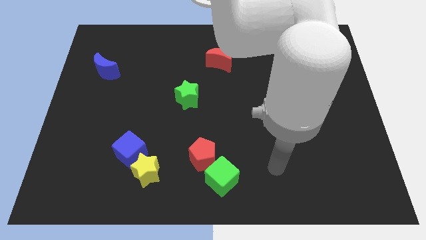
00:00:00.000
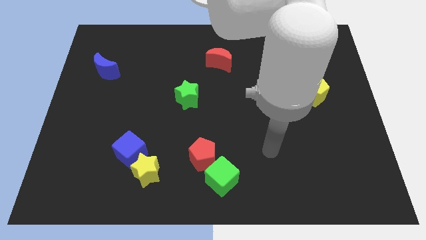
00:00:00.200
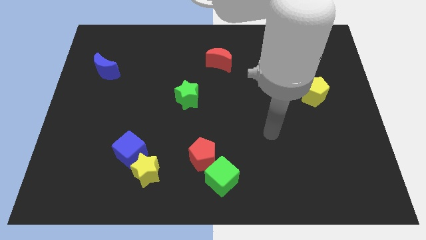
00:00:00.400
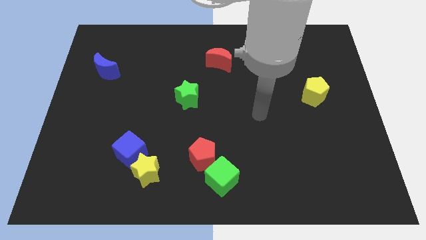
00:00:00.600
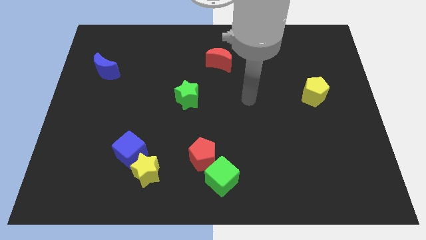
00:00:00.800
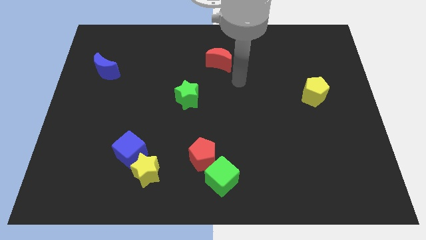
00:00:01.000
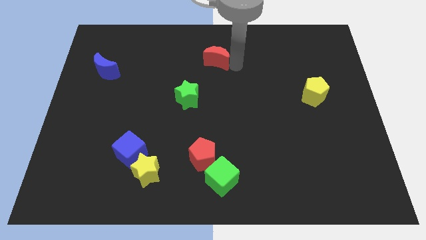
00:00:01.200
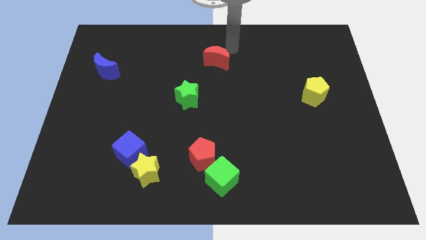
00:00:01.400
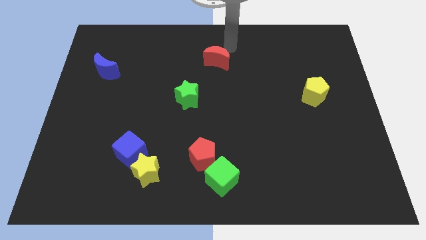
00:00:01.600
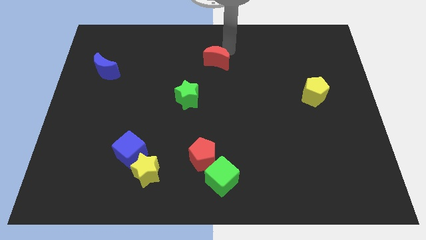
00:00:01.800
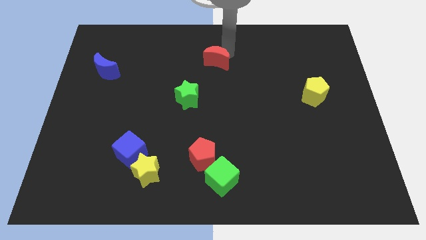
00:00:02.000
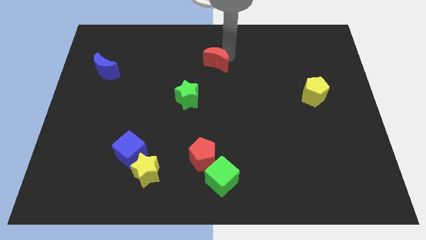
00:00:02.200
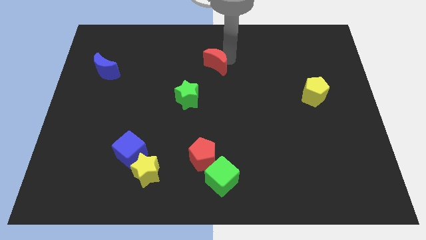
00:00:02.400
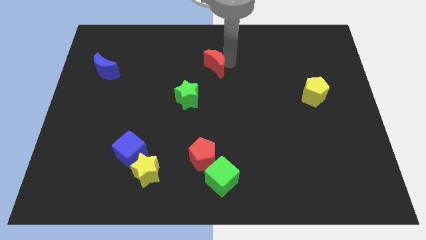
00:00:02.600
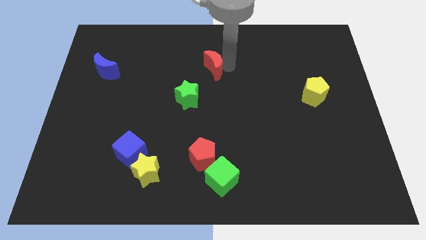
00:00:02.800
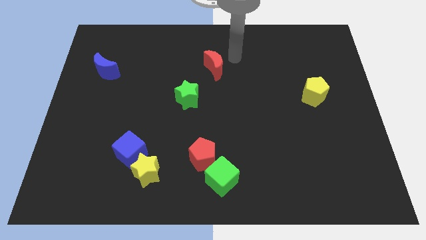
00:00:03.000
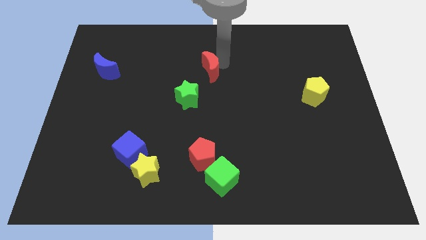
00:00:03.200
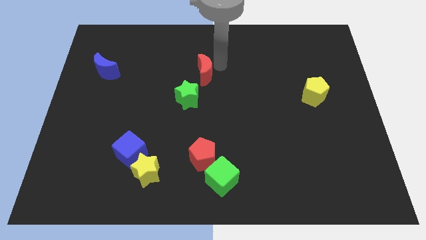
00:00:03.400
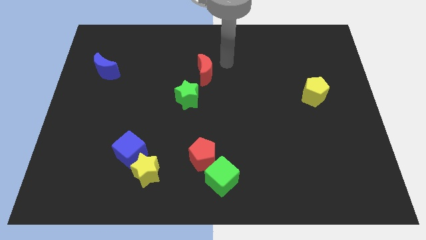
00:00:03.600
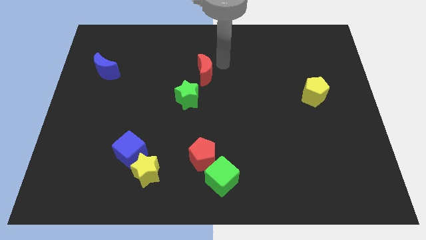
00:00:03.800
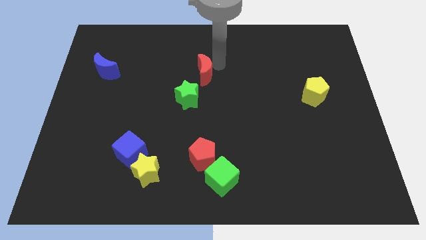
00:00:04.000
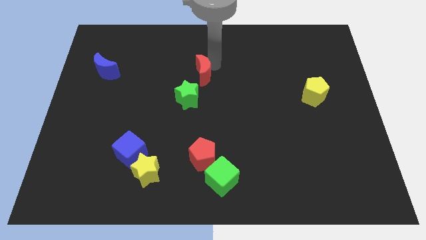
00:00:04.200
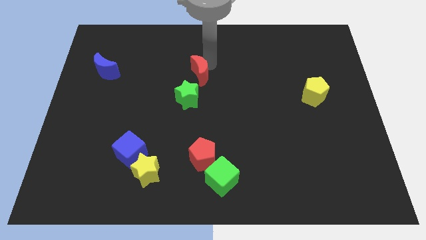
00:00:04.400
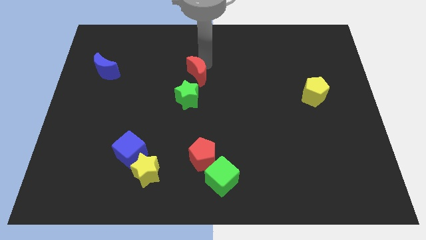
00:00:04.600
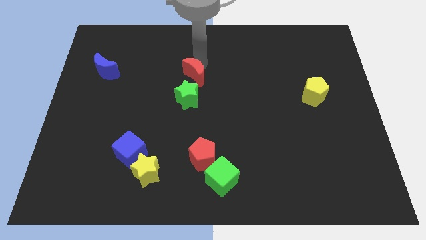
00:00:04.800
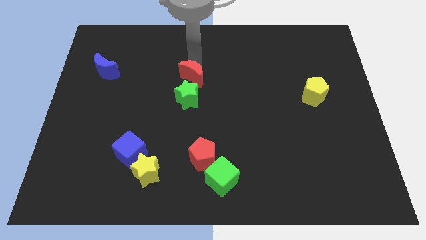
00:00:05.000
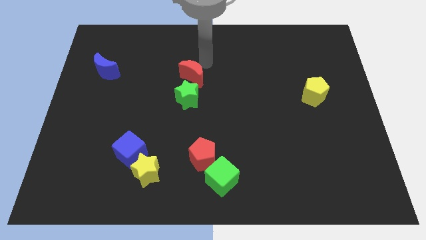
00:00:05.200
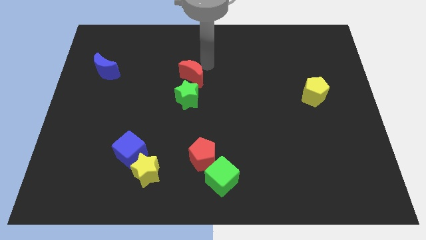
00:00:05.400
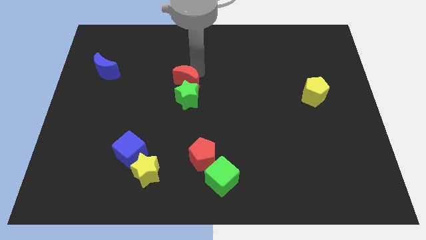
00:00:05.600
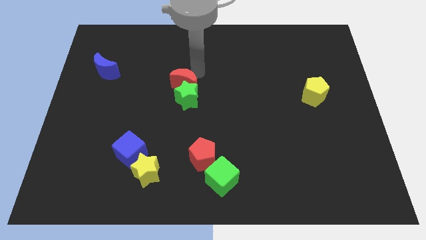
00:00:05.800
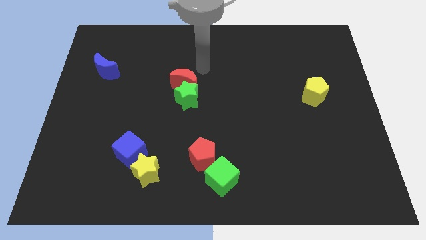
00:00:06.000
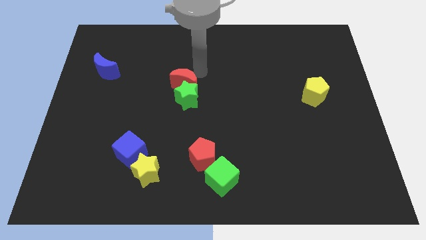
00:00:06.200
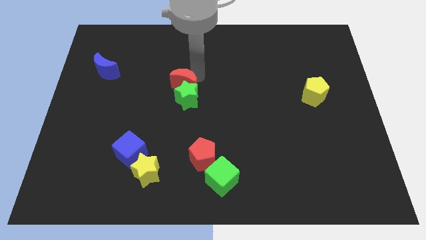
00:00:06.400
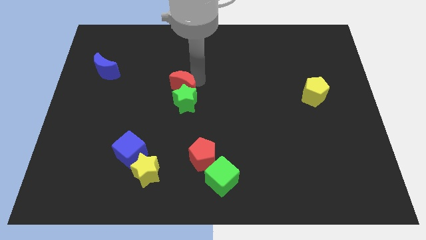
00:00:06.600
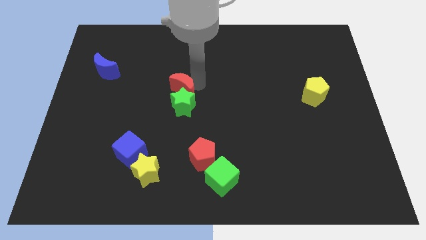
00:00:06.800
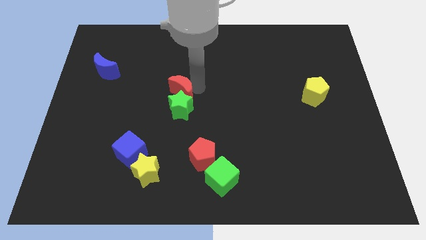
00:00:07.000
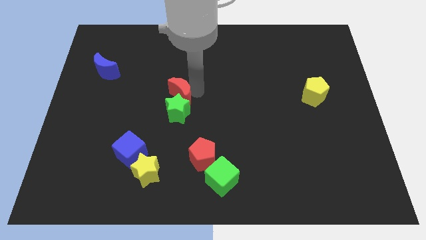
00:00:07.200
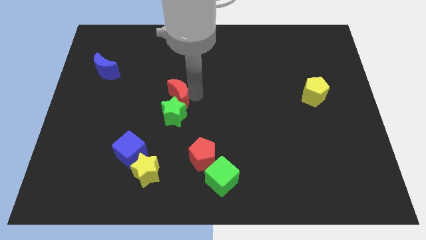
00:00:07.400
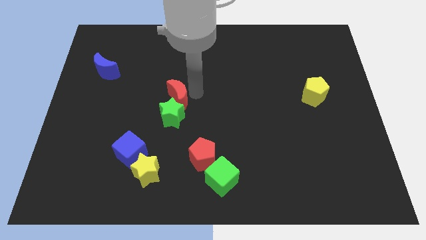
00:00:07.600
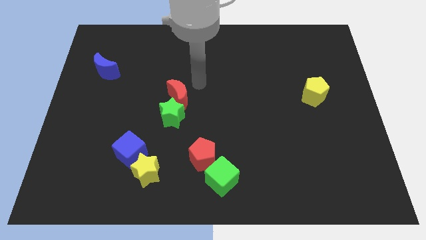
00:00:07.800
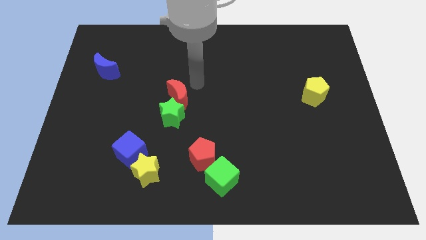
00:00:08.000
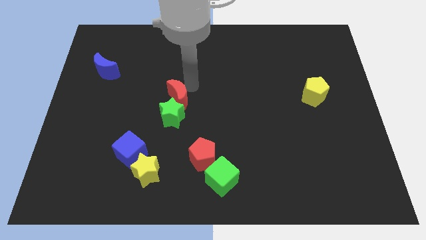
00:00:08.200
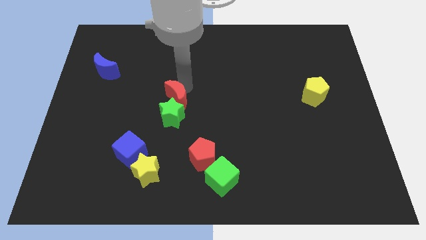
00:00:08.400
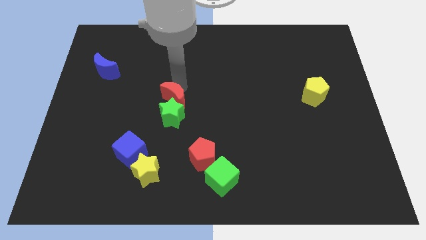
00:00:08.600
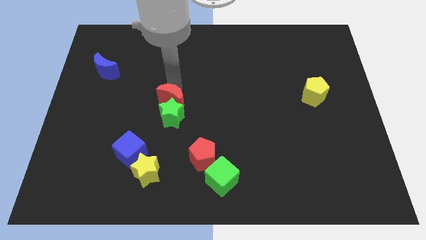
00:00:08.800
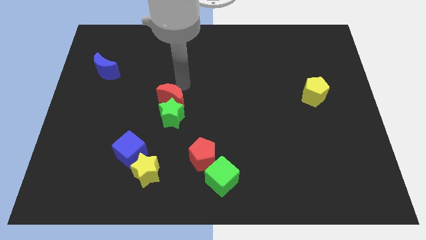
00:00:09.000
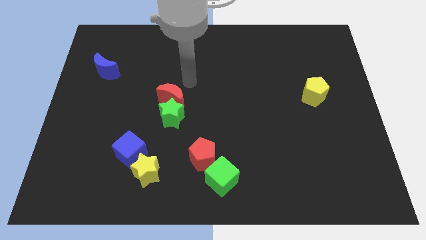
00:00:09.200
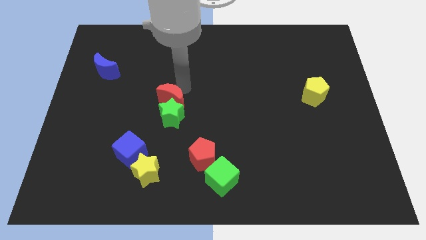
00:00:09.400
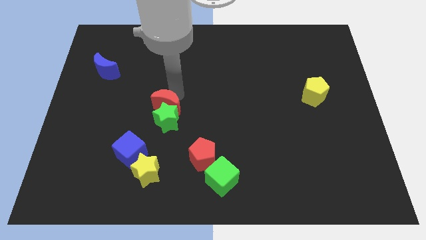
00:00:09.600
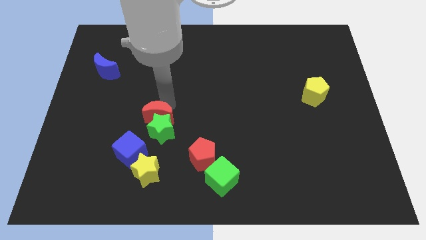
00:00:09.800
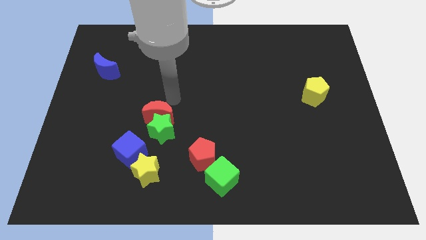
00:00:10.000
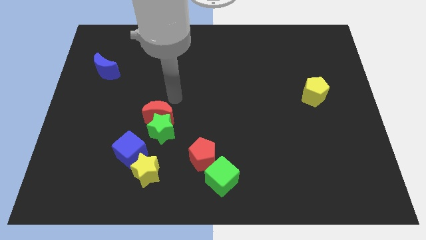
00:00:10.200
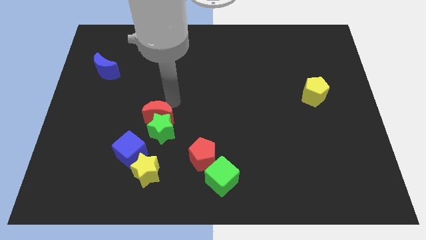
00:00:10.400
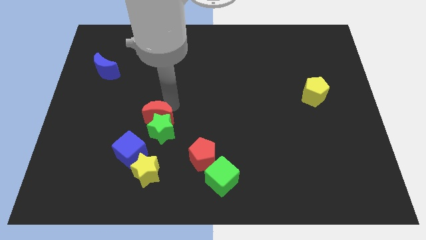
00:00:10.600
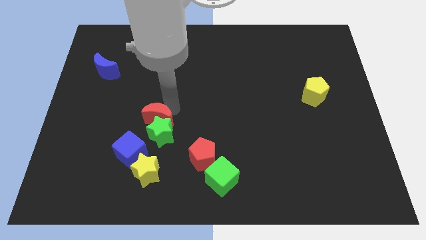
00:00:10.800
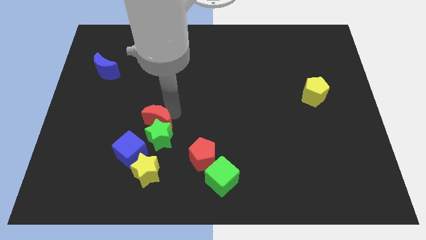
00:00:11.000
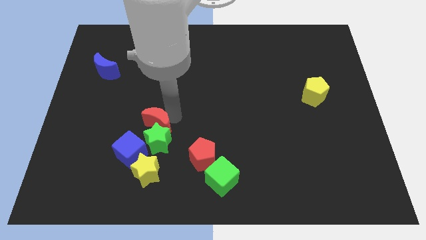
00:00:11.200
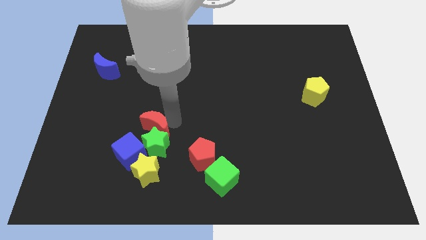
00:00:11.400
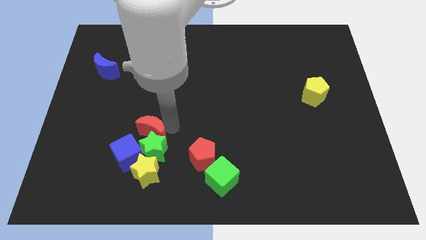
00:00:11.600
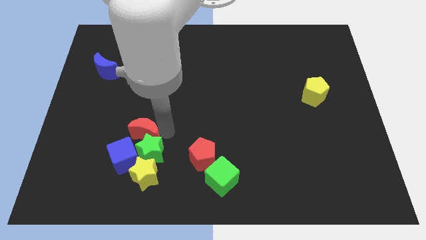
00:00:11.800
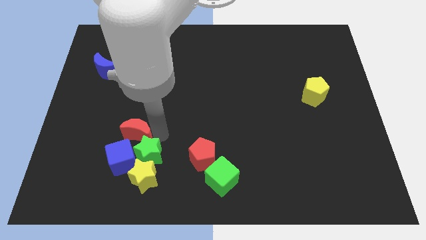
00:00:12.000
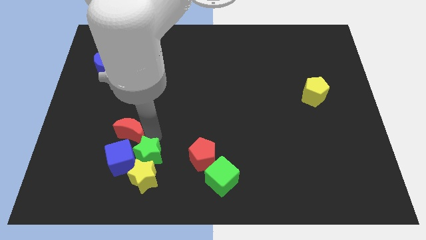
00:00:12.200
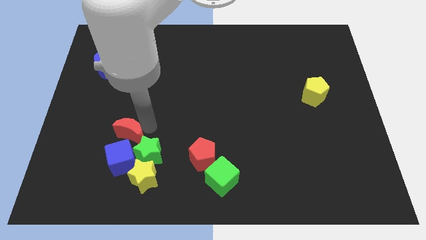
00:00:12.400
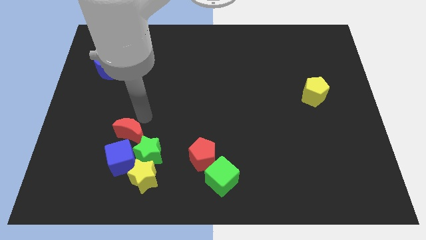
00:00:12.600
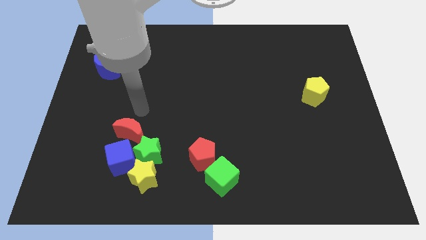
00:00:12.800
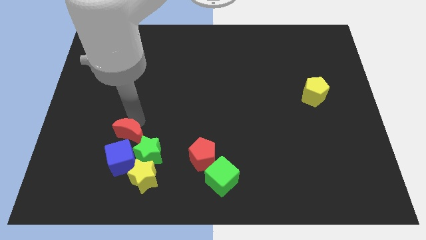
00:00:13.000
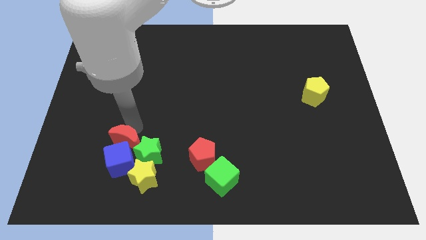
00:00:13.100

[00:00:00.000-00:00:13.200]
slide the red moon to the blue cube

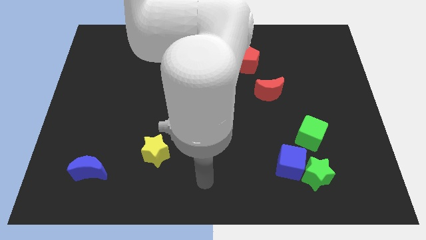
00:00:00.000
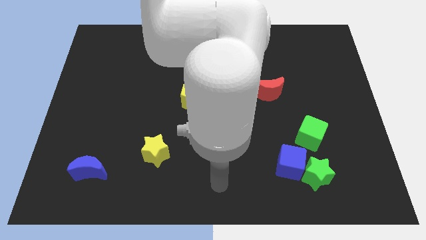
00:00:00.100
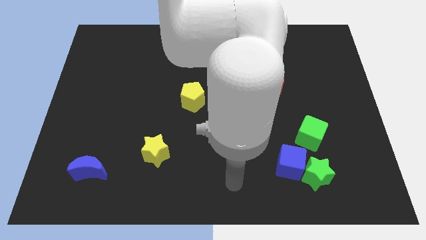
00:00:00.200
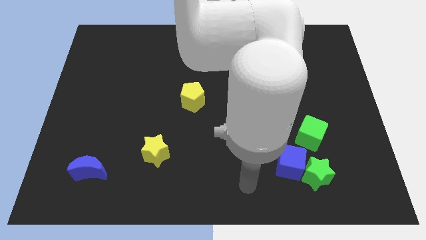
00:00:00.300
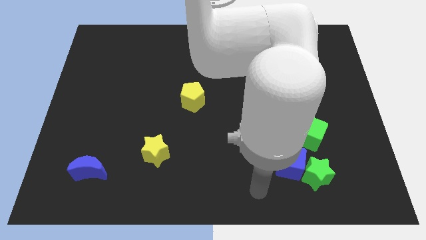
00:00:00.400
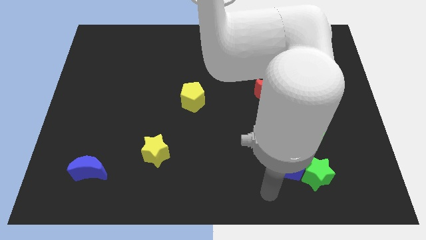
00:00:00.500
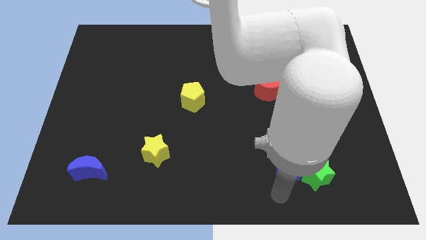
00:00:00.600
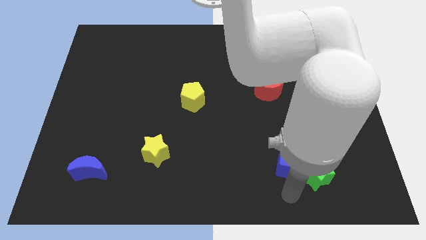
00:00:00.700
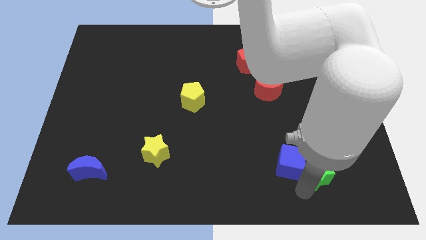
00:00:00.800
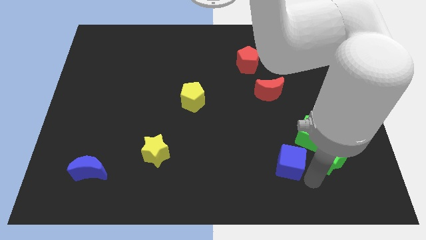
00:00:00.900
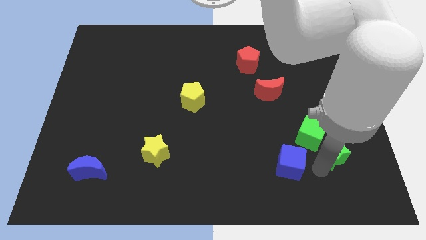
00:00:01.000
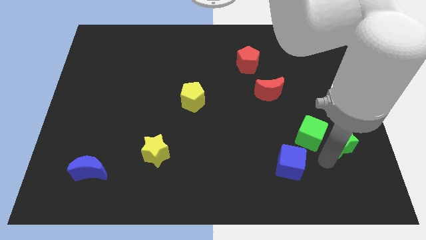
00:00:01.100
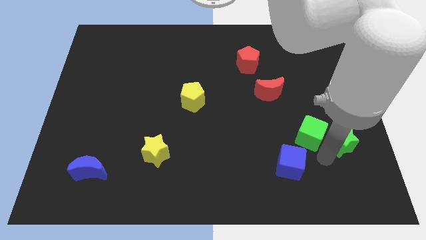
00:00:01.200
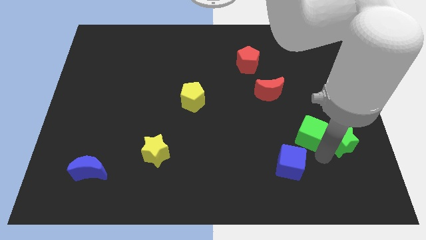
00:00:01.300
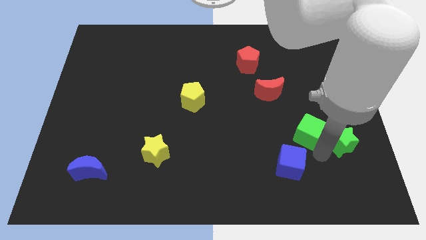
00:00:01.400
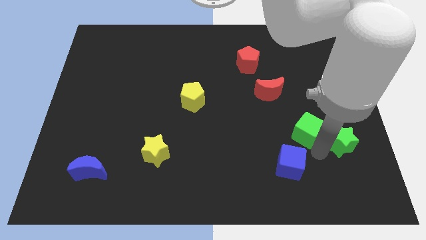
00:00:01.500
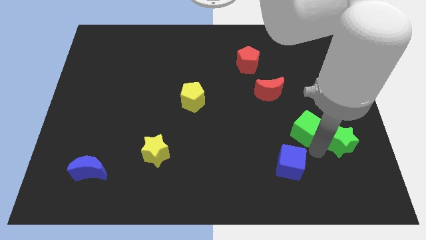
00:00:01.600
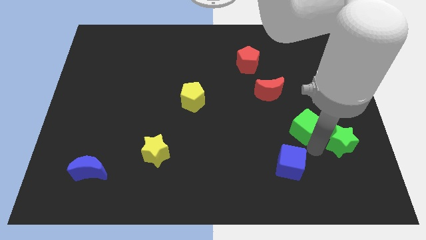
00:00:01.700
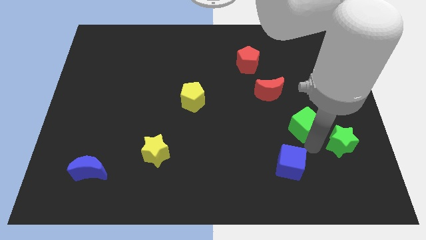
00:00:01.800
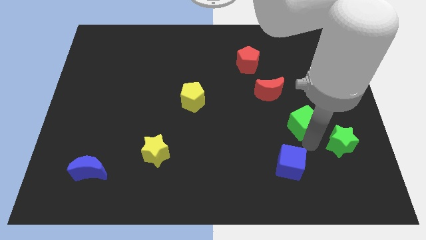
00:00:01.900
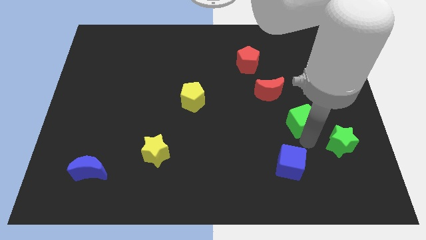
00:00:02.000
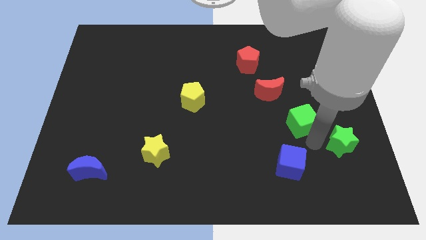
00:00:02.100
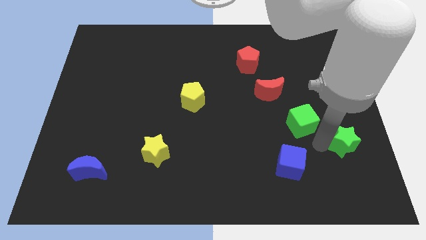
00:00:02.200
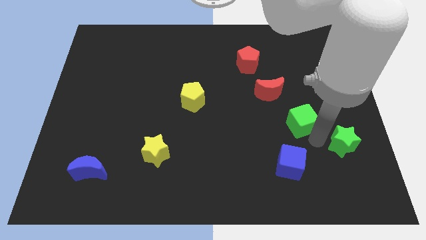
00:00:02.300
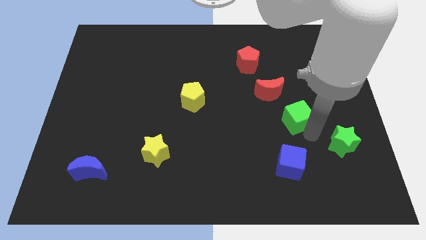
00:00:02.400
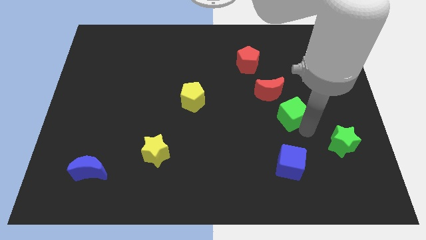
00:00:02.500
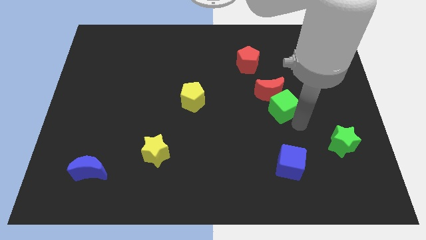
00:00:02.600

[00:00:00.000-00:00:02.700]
move the green cube to the red moon
